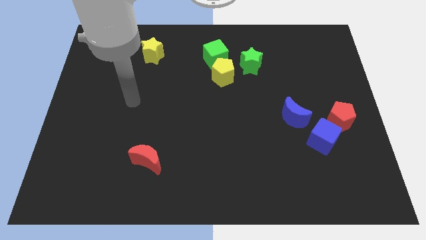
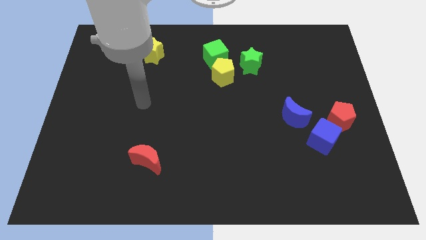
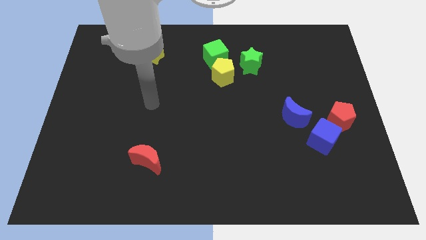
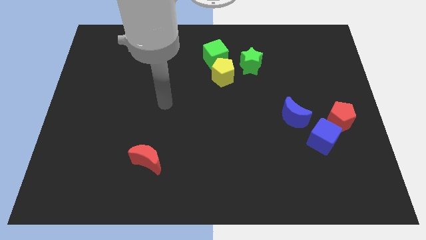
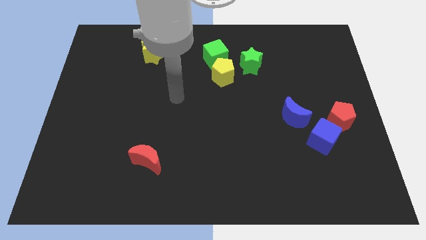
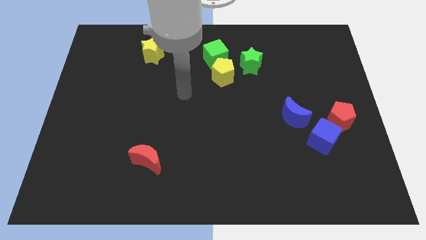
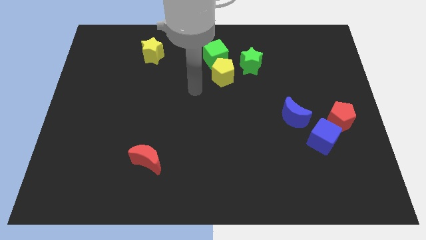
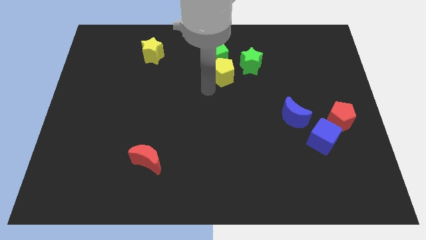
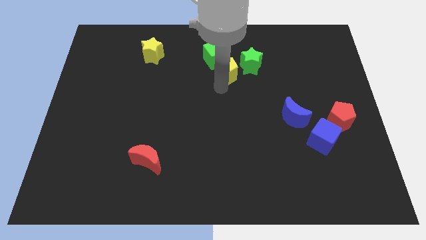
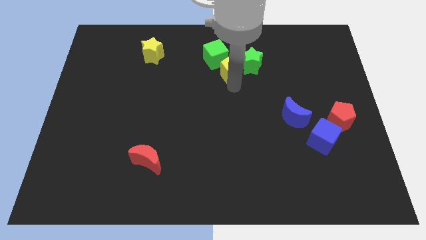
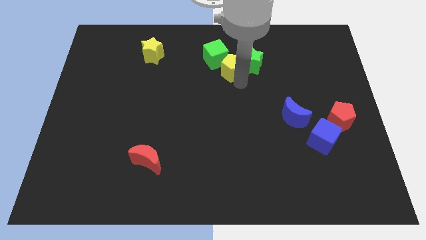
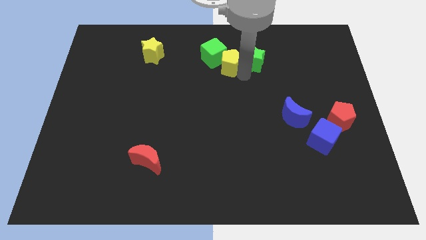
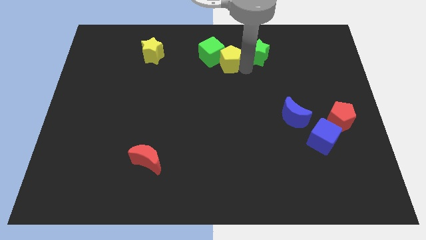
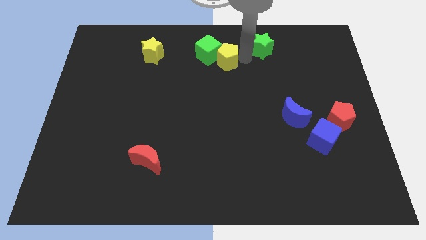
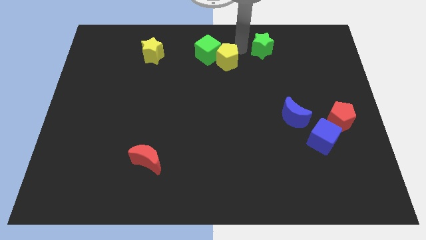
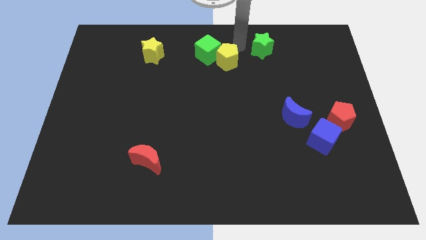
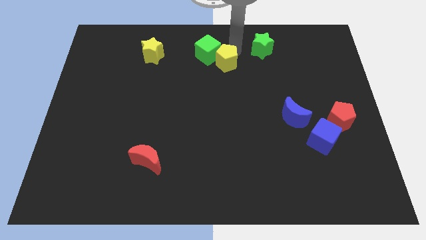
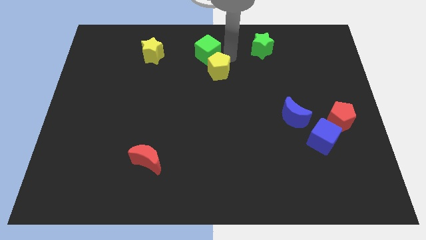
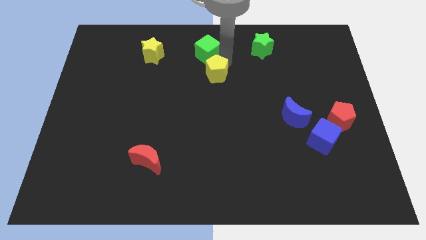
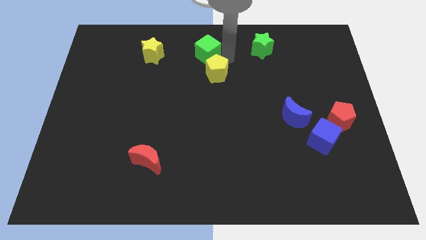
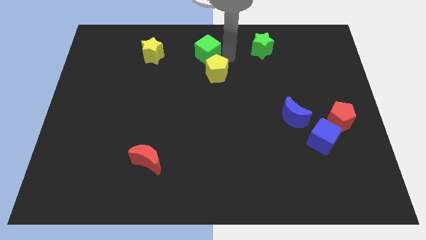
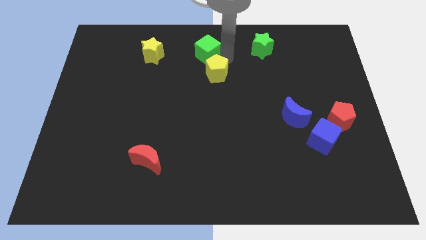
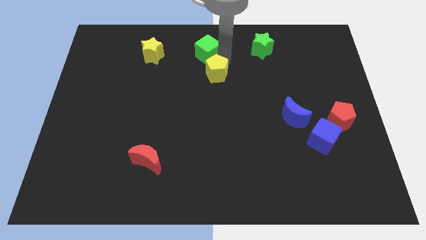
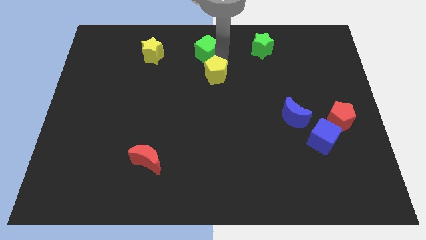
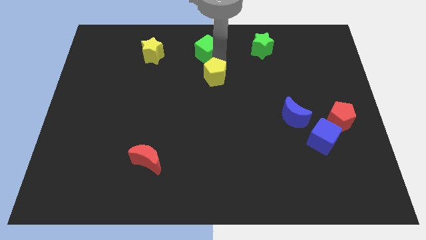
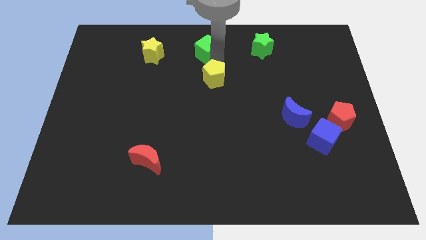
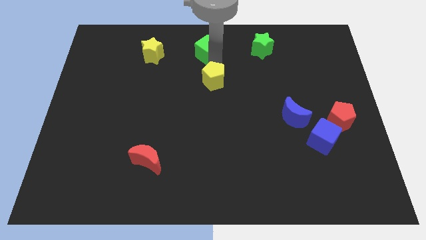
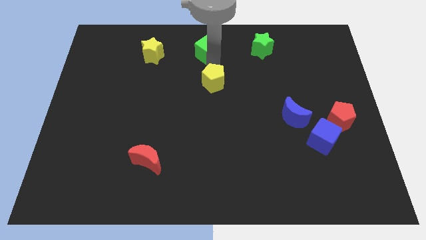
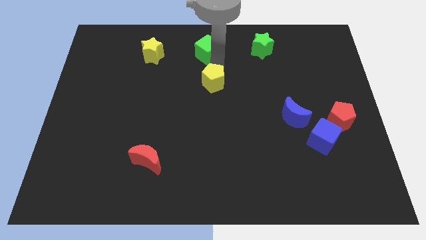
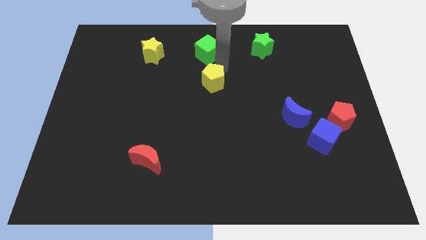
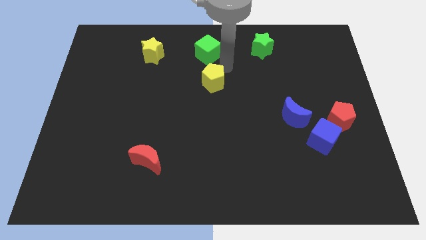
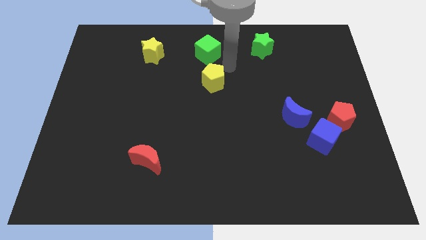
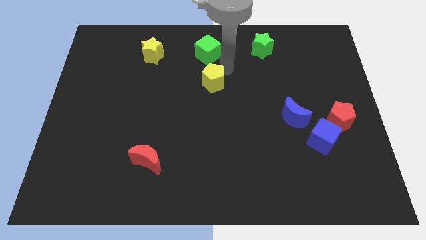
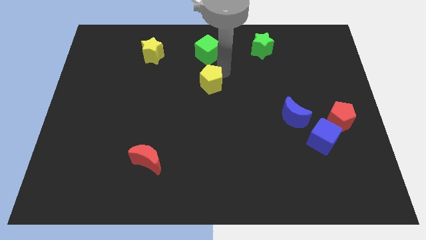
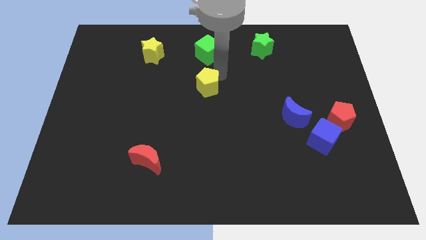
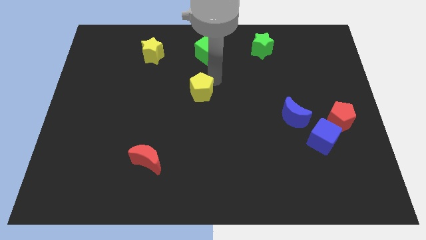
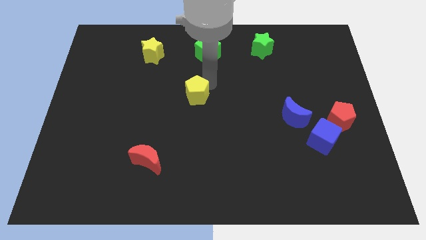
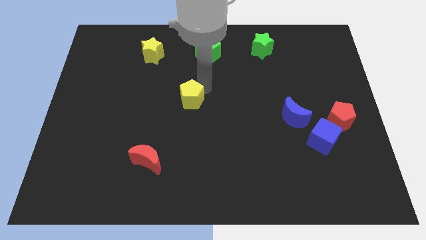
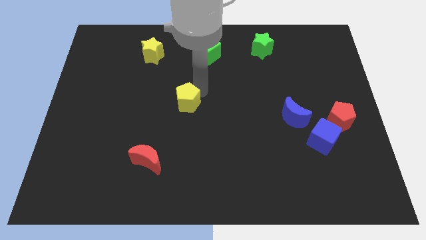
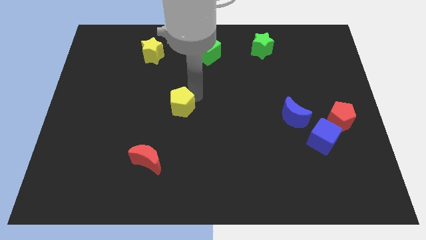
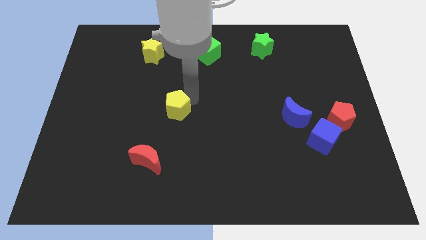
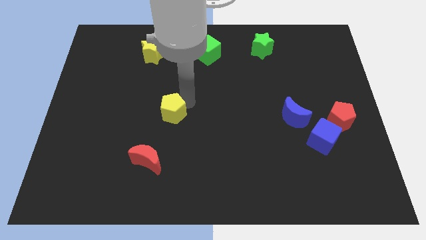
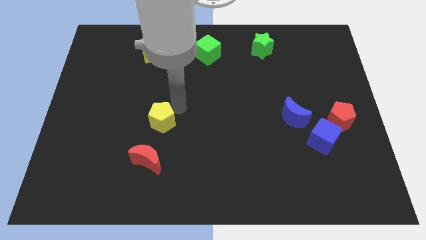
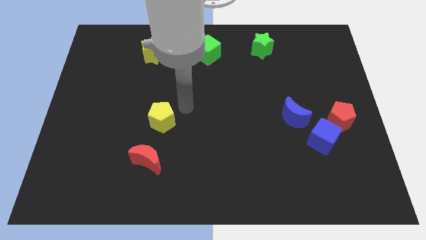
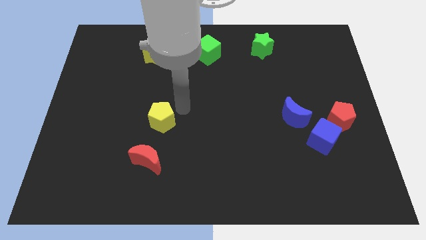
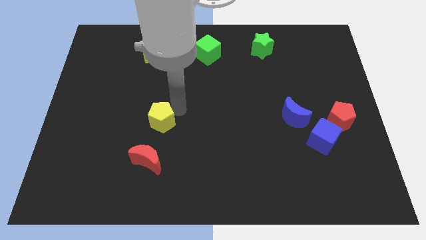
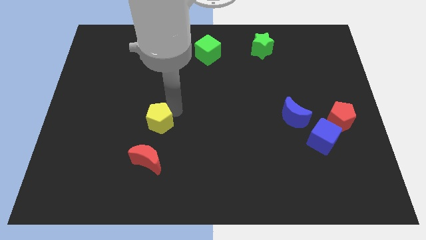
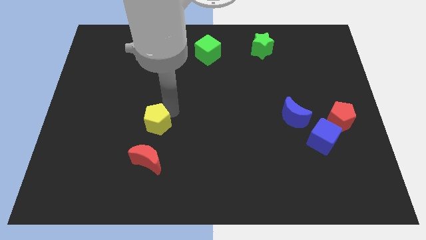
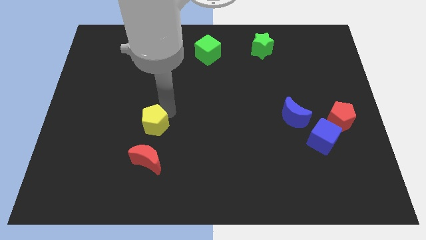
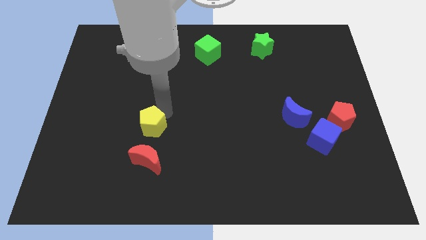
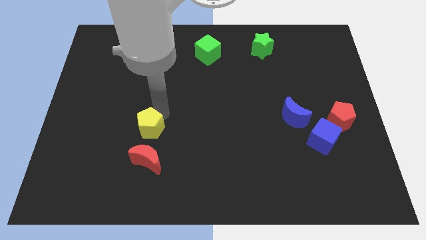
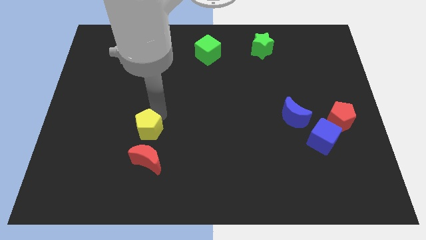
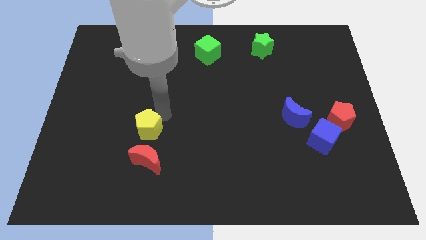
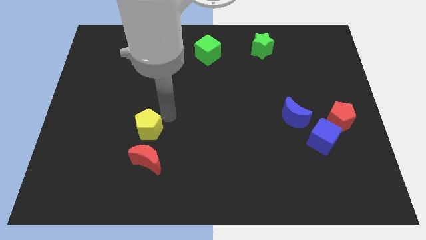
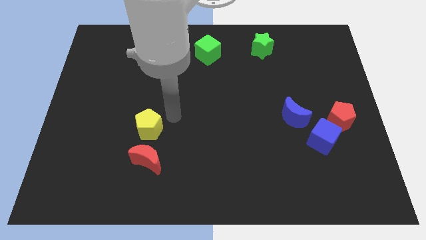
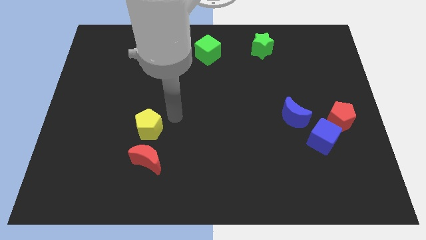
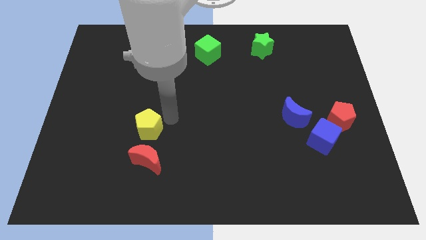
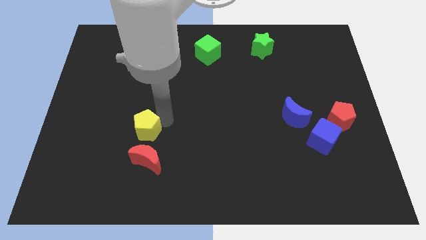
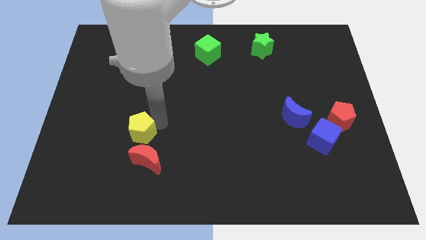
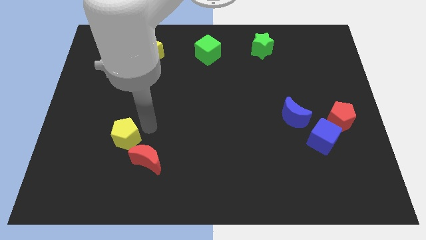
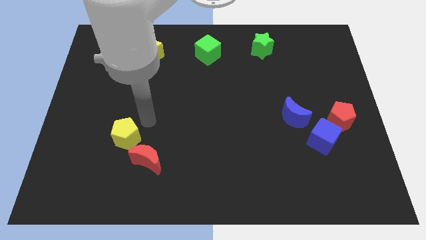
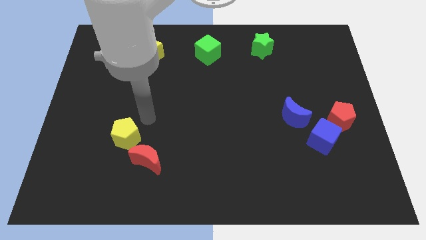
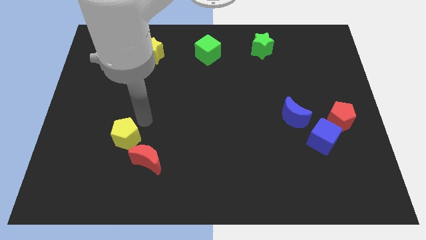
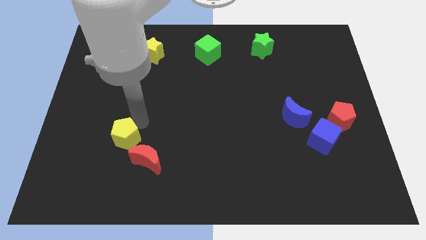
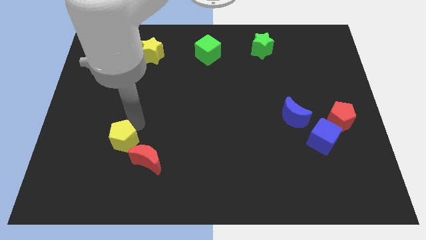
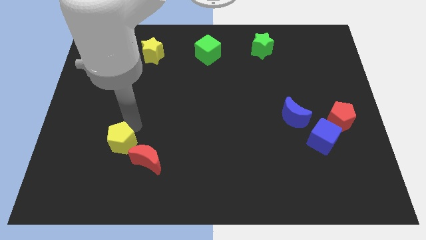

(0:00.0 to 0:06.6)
slide the yellow pentagon just left of the red moon
